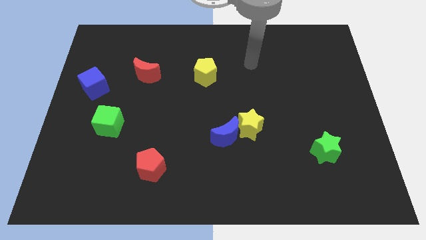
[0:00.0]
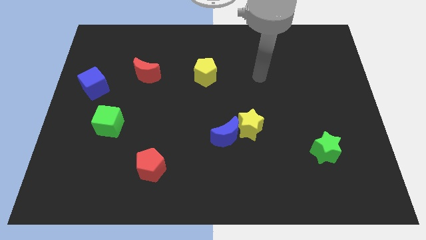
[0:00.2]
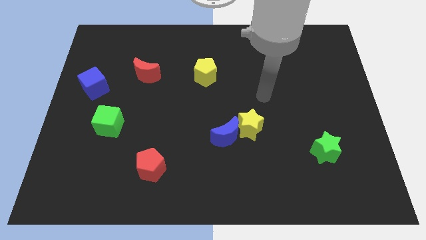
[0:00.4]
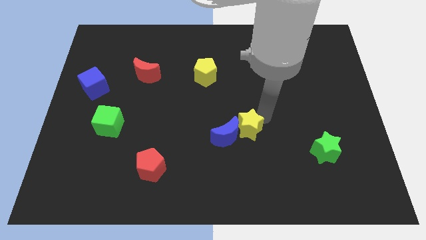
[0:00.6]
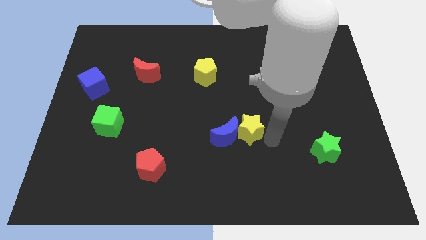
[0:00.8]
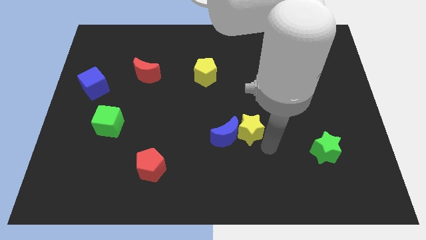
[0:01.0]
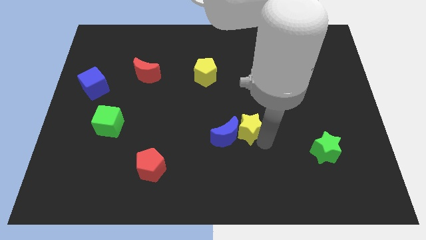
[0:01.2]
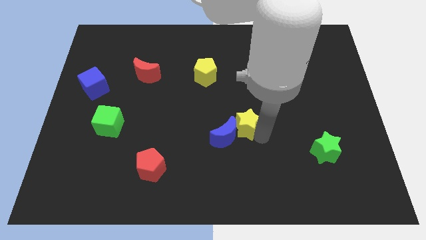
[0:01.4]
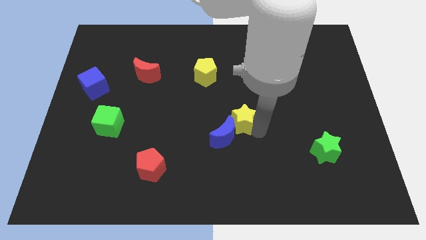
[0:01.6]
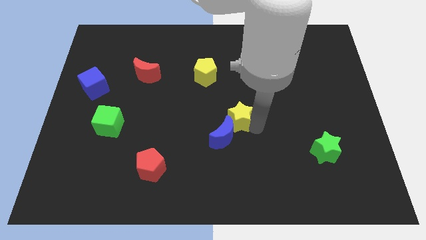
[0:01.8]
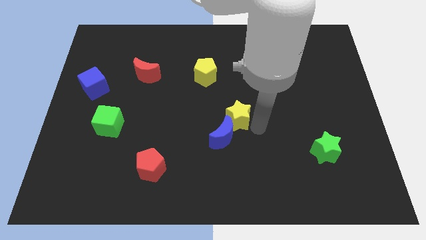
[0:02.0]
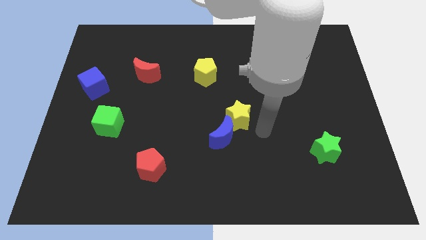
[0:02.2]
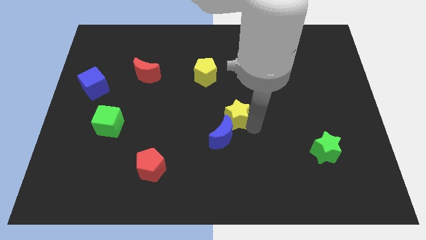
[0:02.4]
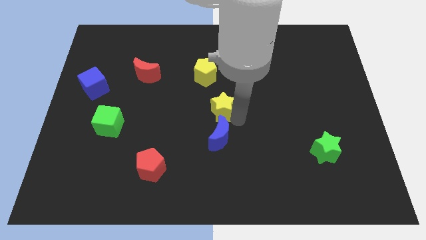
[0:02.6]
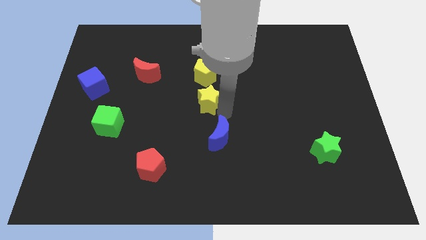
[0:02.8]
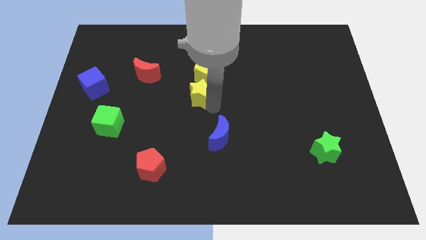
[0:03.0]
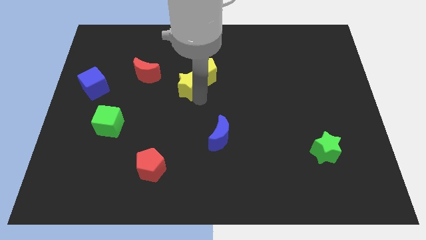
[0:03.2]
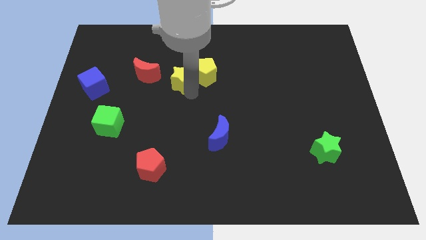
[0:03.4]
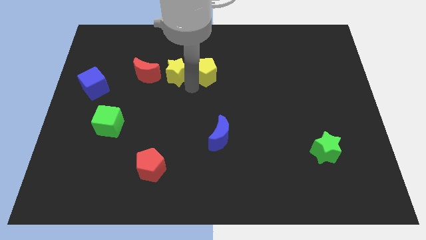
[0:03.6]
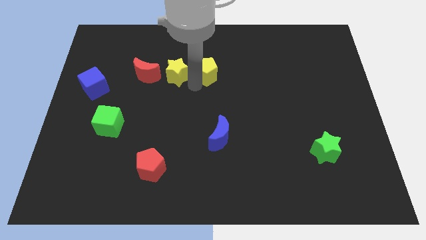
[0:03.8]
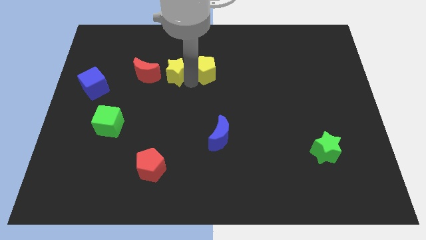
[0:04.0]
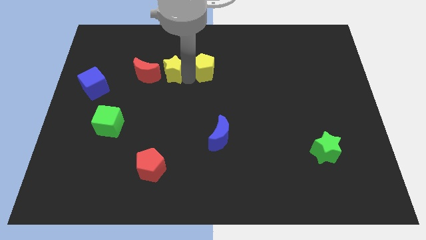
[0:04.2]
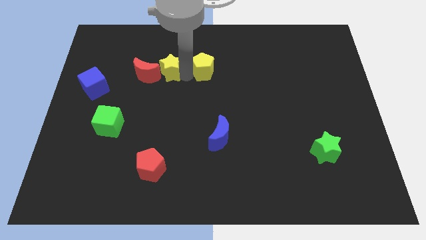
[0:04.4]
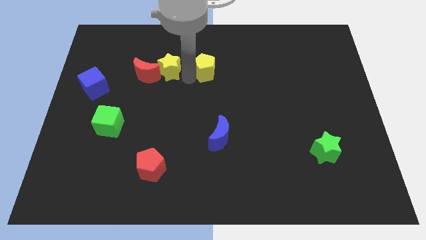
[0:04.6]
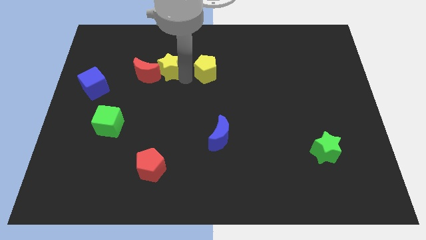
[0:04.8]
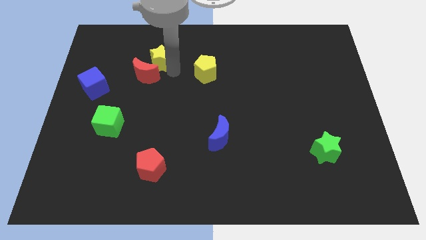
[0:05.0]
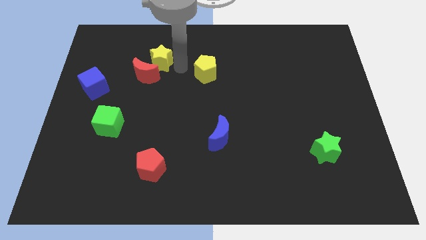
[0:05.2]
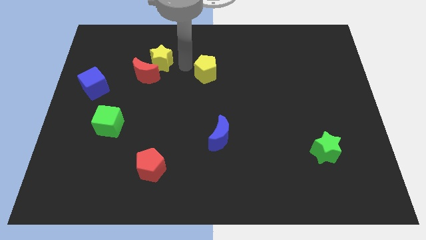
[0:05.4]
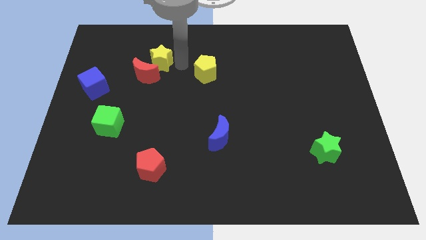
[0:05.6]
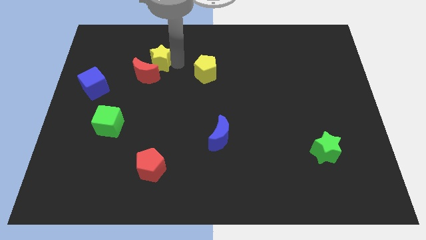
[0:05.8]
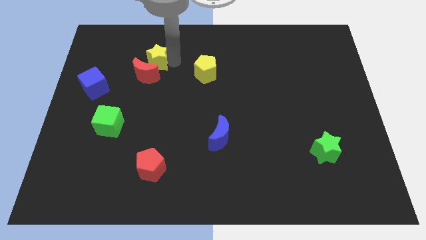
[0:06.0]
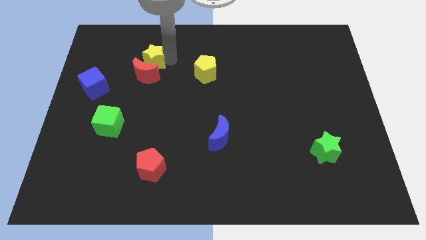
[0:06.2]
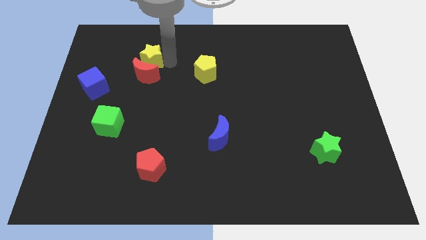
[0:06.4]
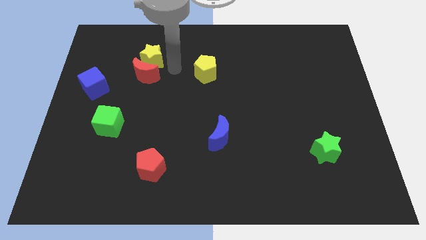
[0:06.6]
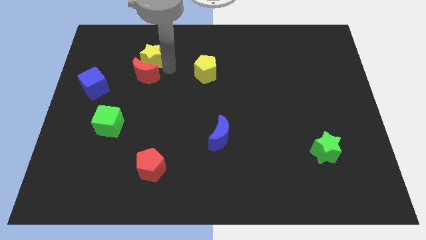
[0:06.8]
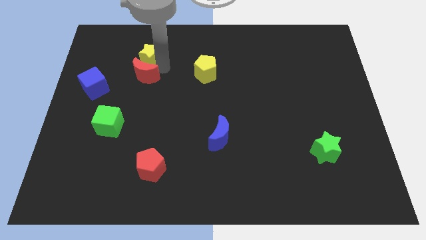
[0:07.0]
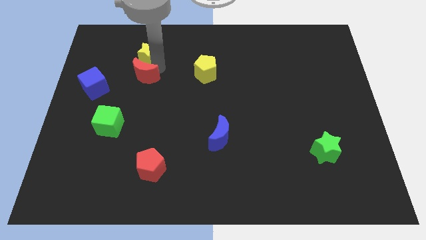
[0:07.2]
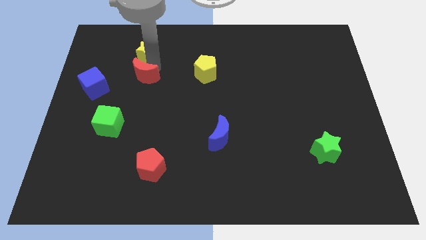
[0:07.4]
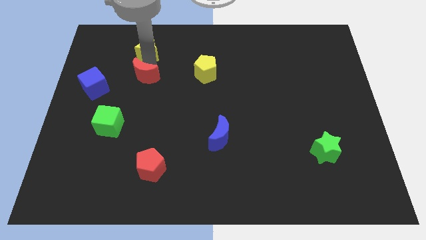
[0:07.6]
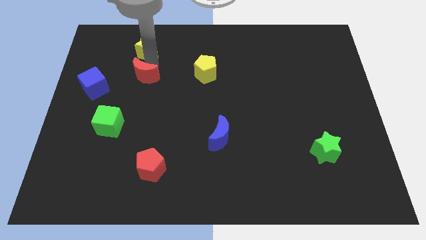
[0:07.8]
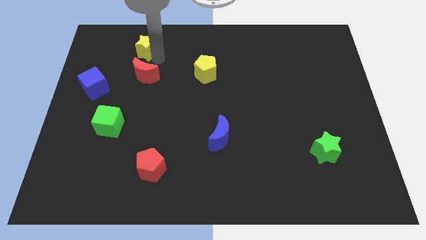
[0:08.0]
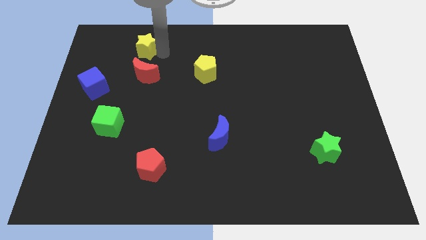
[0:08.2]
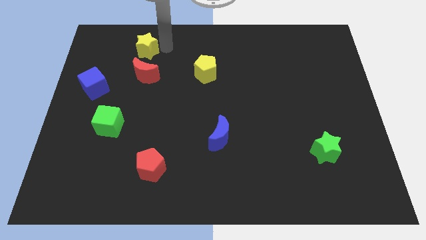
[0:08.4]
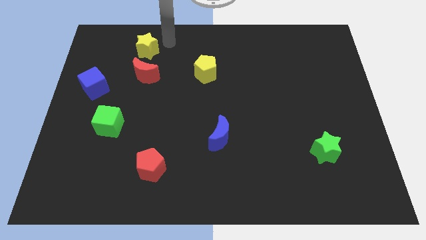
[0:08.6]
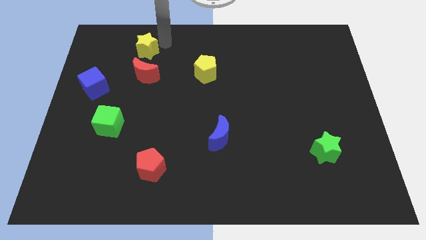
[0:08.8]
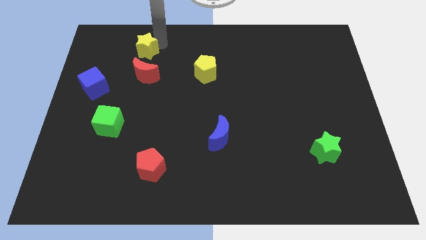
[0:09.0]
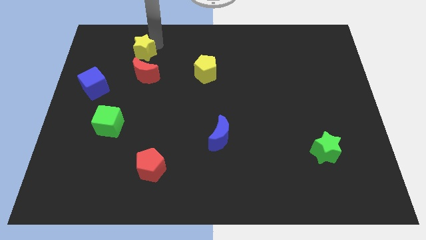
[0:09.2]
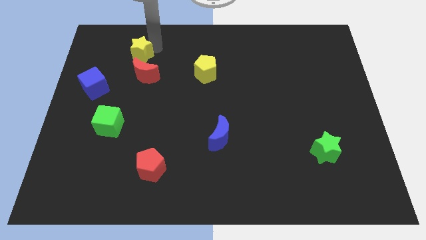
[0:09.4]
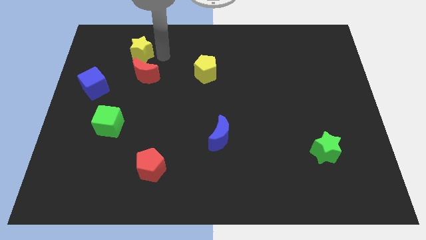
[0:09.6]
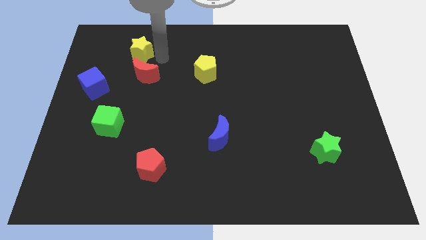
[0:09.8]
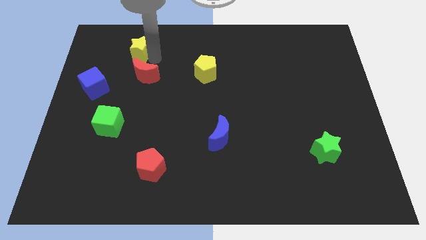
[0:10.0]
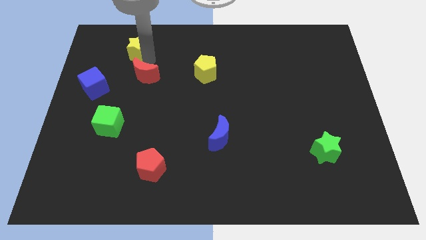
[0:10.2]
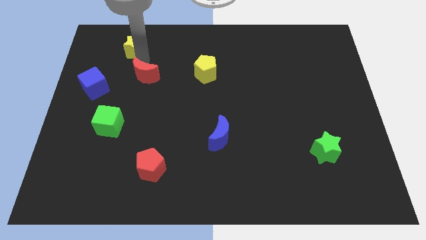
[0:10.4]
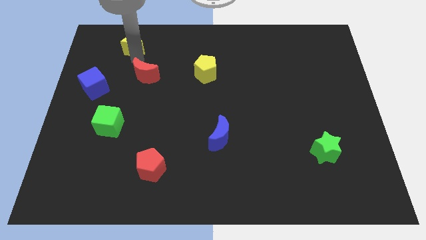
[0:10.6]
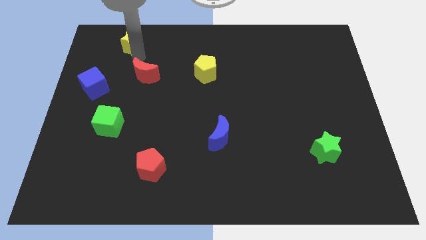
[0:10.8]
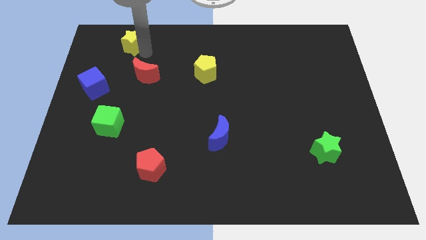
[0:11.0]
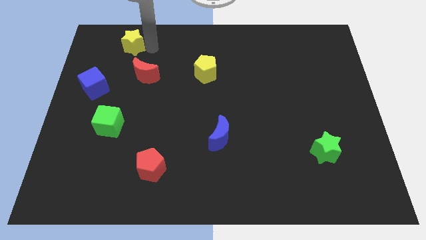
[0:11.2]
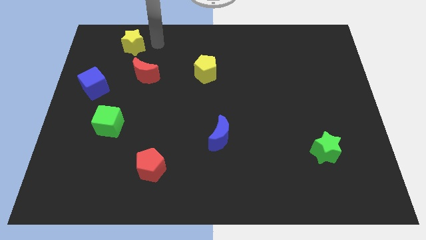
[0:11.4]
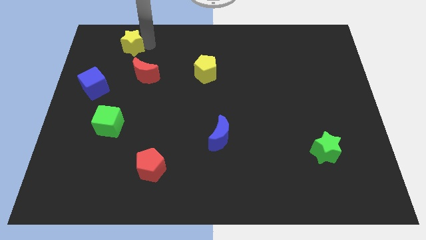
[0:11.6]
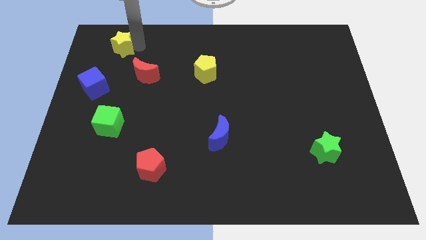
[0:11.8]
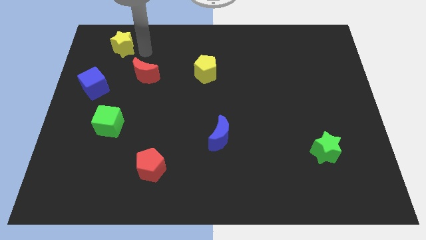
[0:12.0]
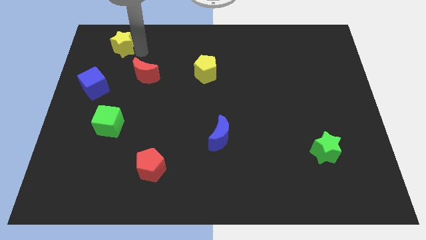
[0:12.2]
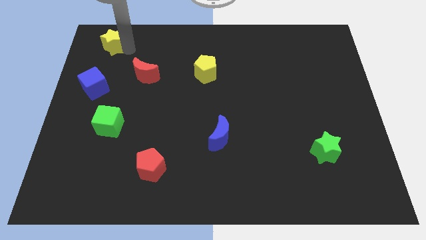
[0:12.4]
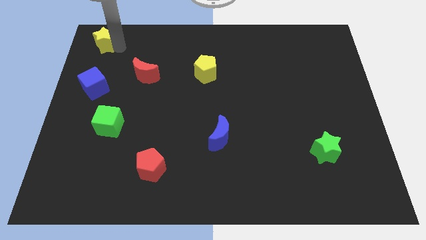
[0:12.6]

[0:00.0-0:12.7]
move the yellow star to the top left corner
